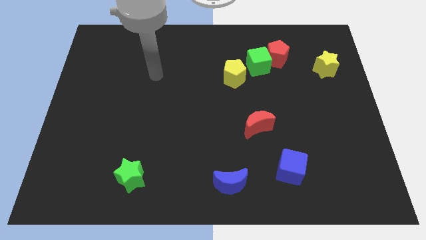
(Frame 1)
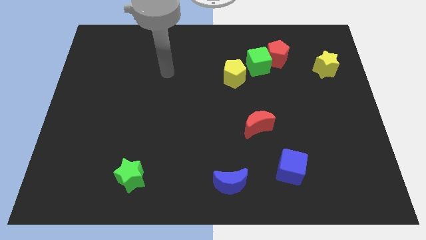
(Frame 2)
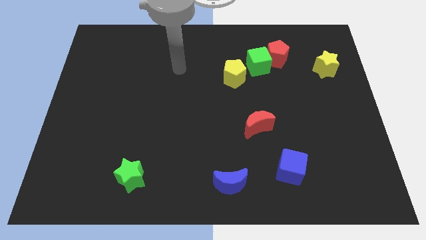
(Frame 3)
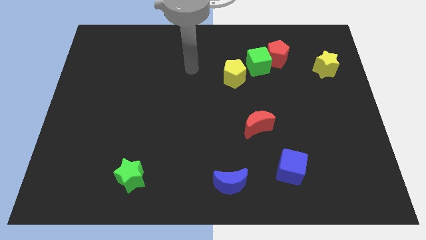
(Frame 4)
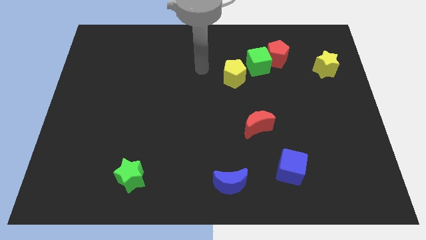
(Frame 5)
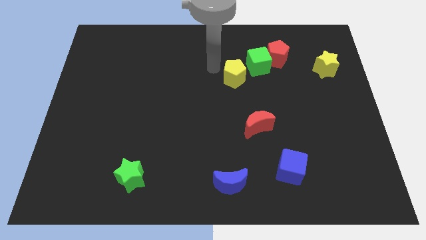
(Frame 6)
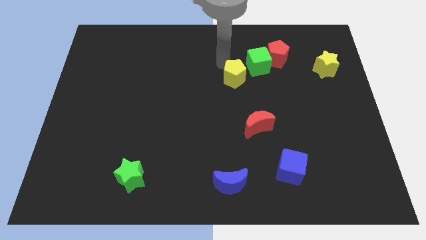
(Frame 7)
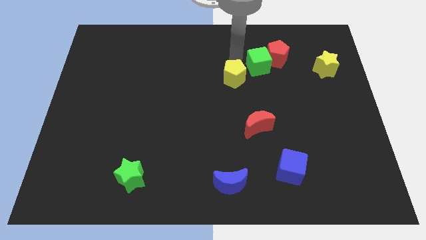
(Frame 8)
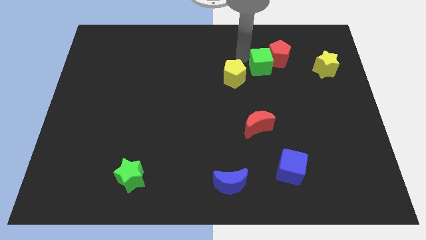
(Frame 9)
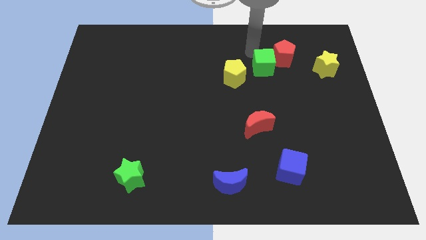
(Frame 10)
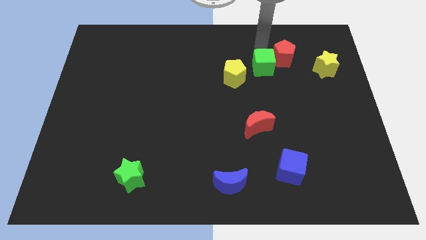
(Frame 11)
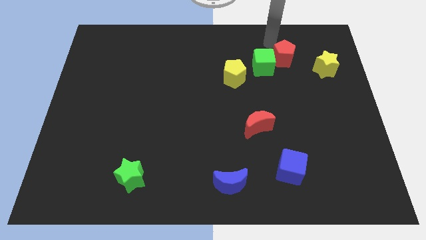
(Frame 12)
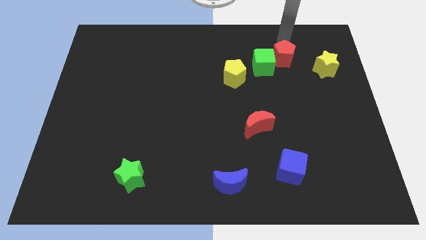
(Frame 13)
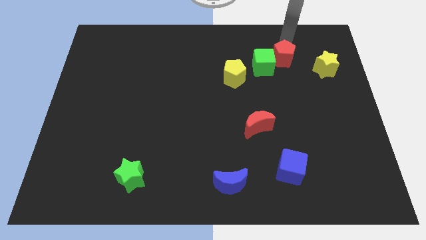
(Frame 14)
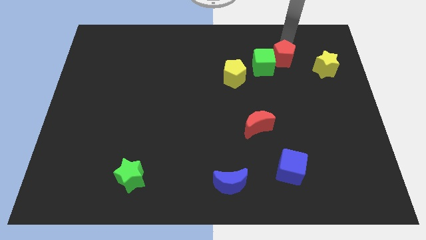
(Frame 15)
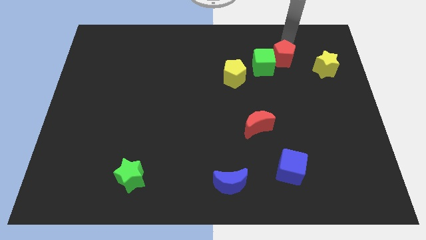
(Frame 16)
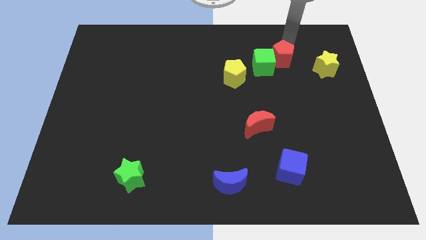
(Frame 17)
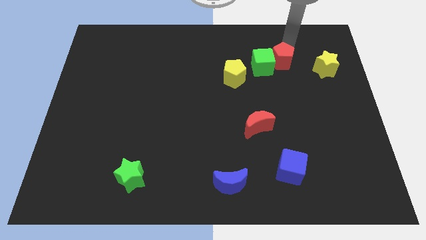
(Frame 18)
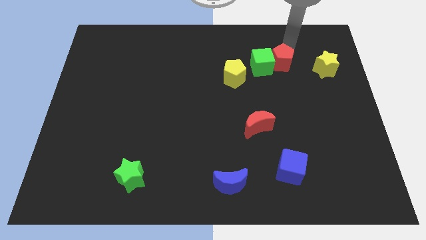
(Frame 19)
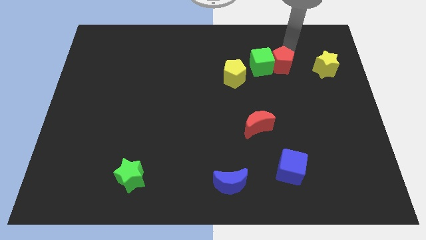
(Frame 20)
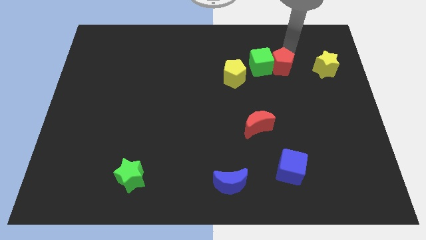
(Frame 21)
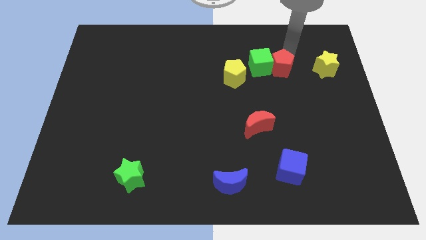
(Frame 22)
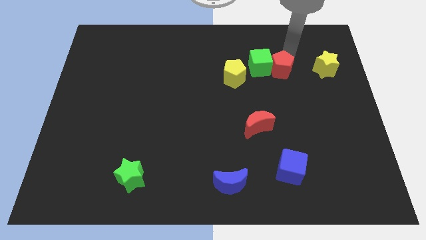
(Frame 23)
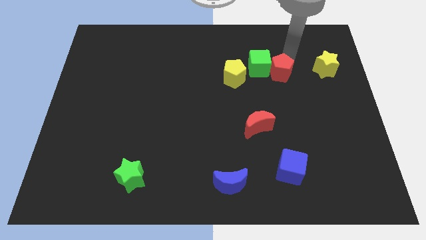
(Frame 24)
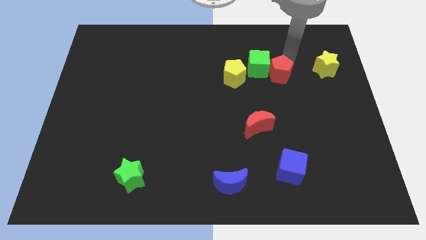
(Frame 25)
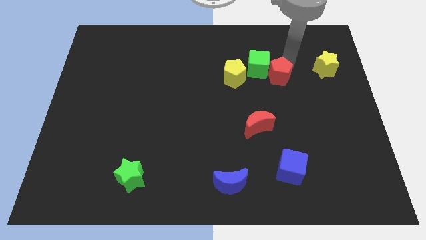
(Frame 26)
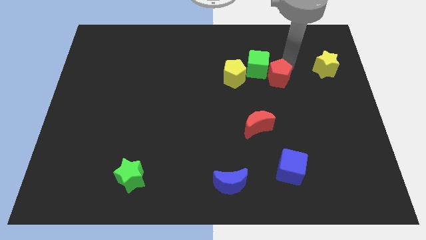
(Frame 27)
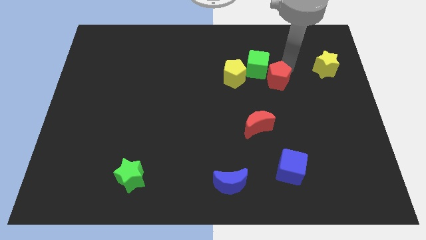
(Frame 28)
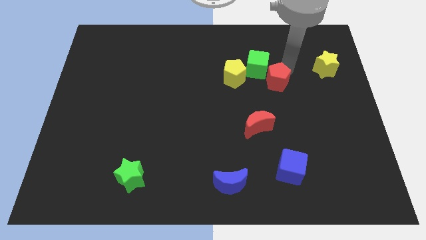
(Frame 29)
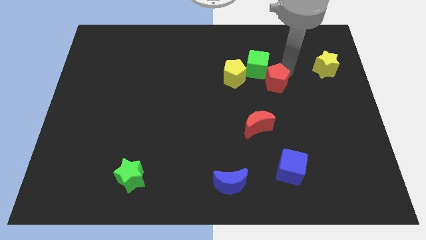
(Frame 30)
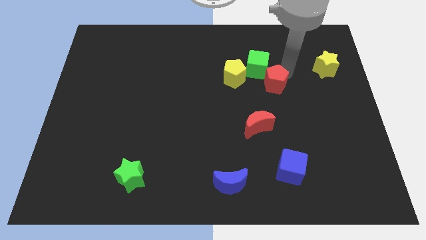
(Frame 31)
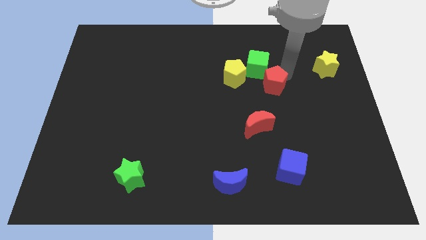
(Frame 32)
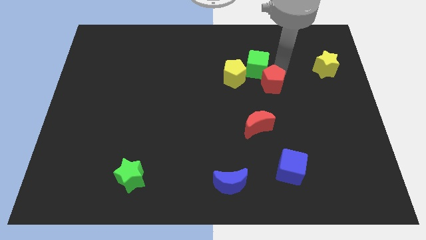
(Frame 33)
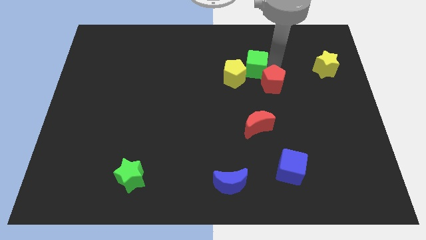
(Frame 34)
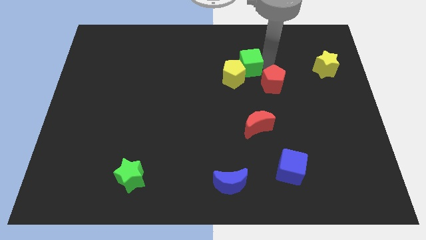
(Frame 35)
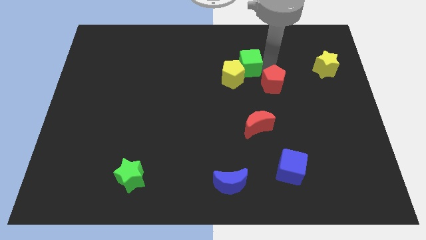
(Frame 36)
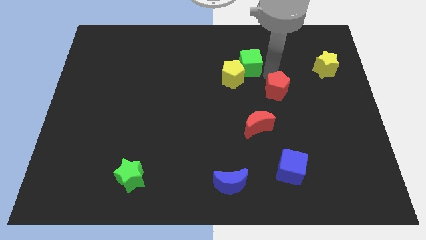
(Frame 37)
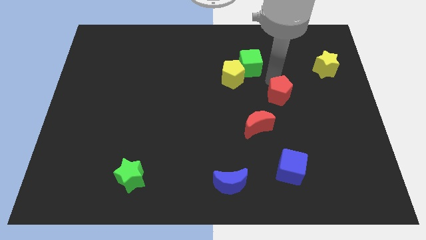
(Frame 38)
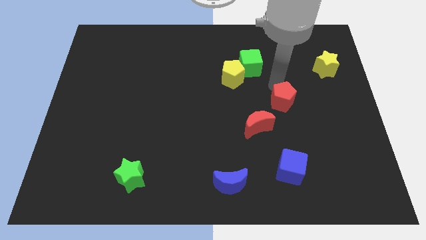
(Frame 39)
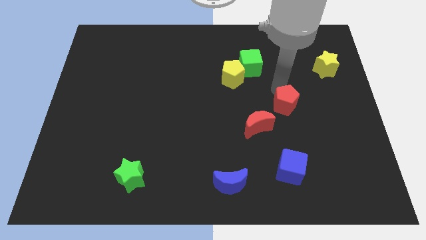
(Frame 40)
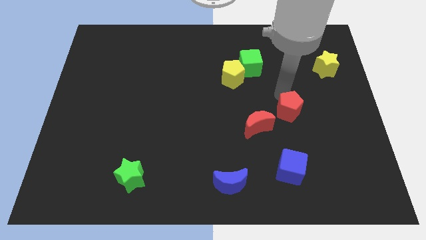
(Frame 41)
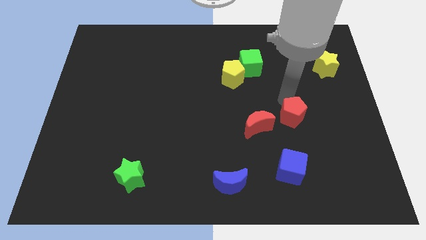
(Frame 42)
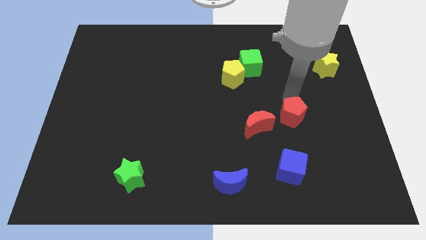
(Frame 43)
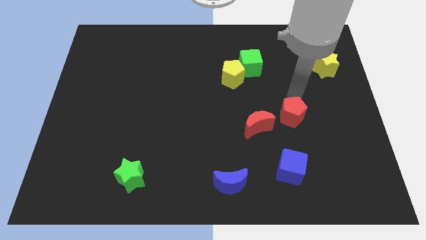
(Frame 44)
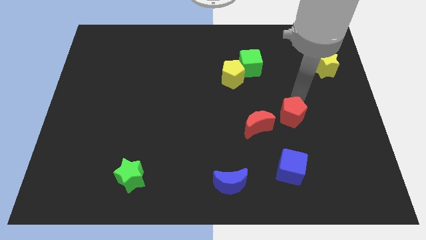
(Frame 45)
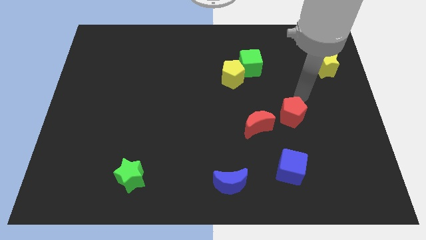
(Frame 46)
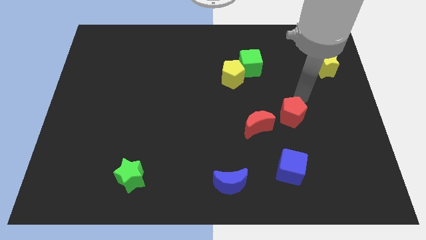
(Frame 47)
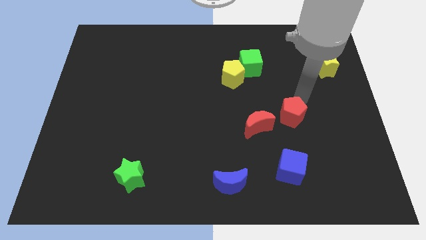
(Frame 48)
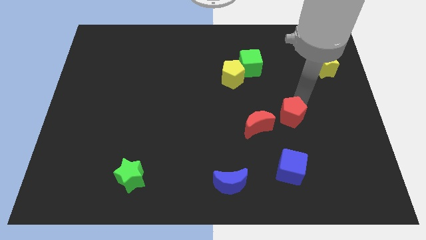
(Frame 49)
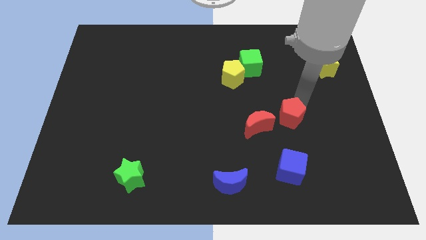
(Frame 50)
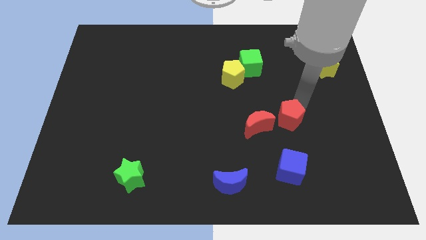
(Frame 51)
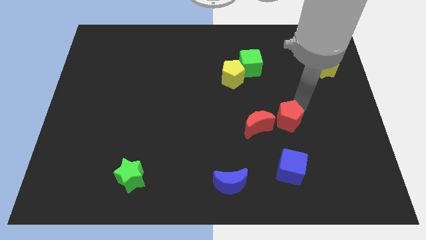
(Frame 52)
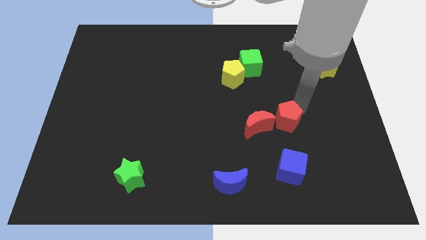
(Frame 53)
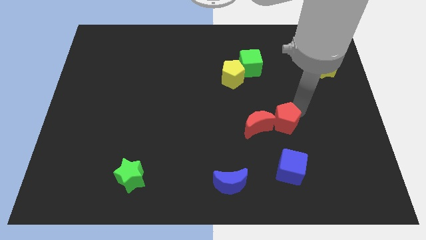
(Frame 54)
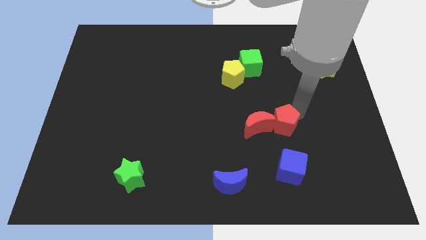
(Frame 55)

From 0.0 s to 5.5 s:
put the red pentagon diagonally down and to the right of the red moon
